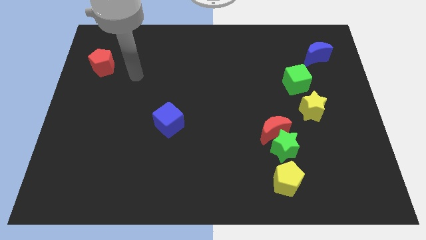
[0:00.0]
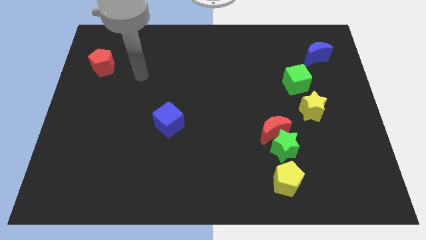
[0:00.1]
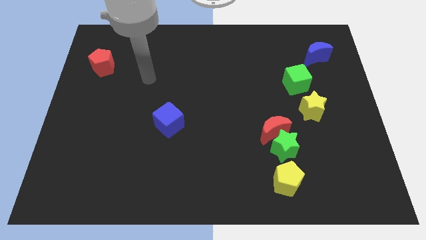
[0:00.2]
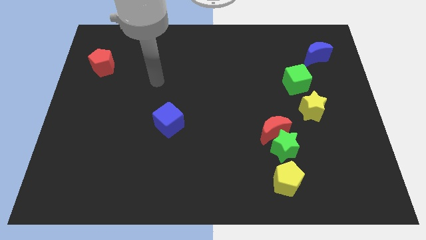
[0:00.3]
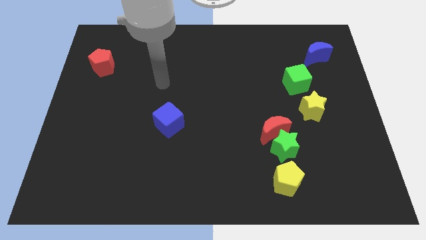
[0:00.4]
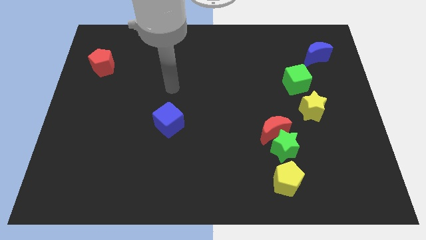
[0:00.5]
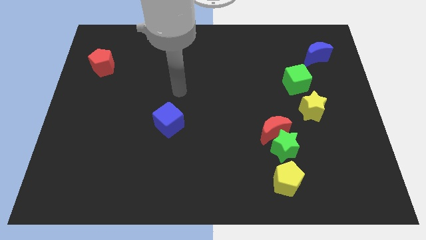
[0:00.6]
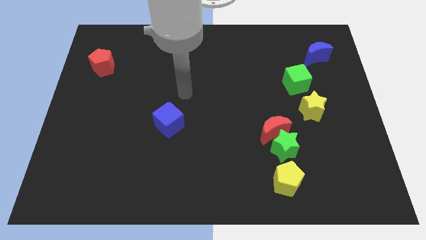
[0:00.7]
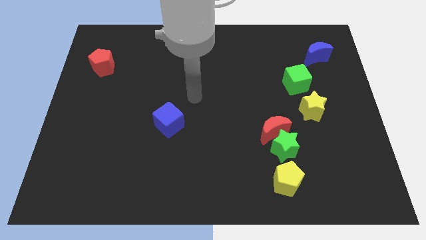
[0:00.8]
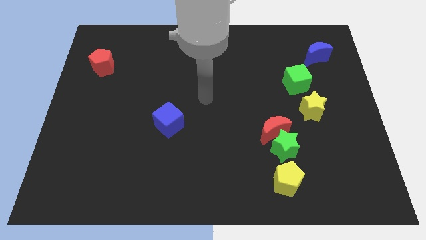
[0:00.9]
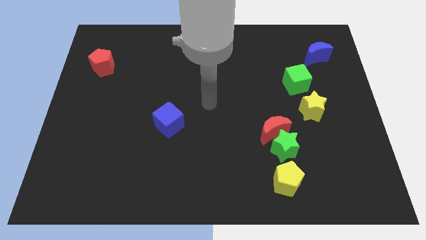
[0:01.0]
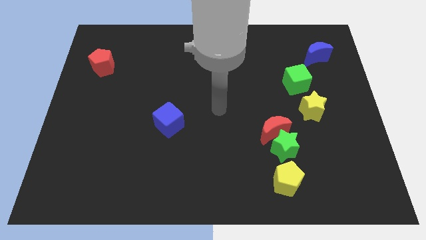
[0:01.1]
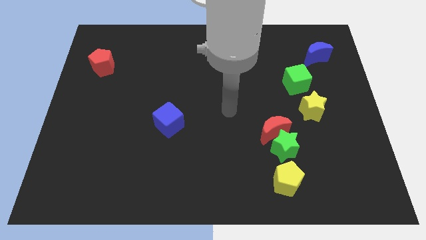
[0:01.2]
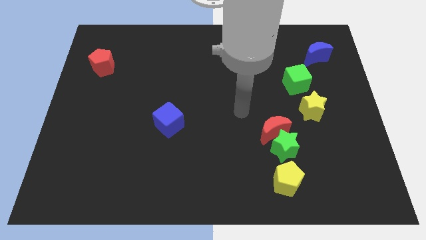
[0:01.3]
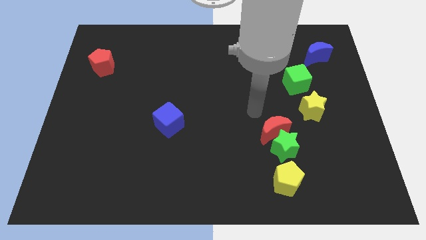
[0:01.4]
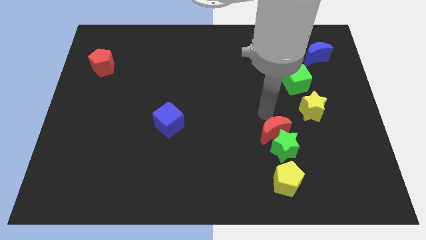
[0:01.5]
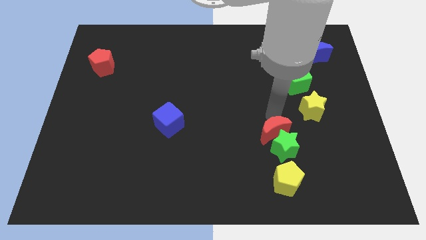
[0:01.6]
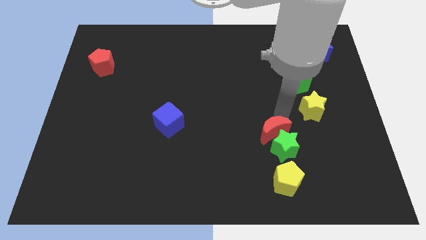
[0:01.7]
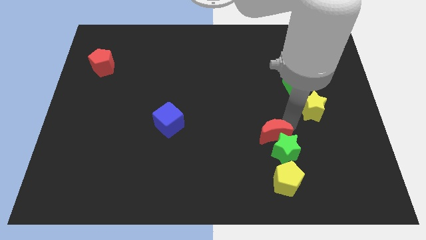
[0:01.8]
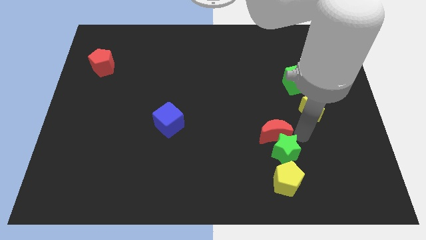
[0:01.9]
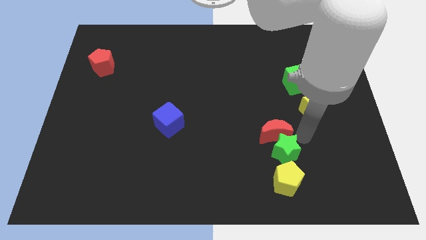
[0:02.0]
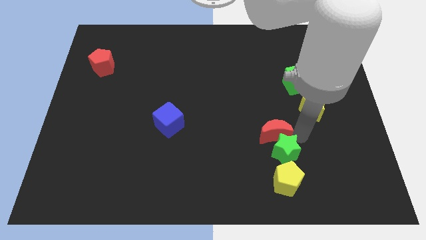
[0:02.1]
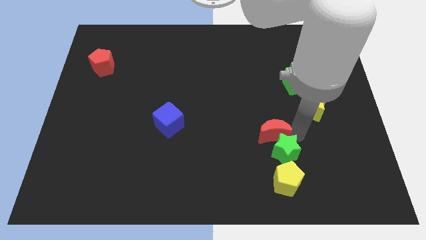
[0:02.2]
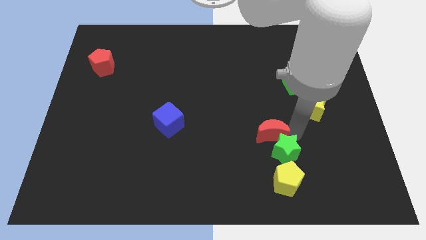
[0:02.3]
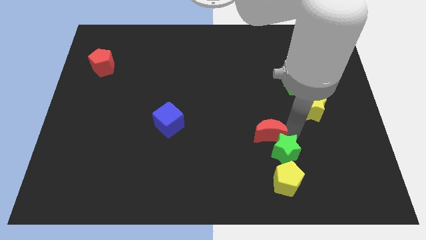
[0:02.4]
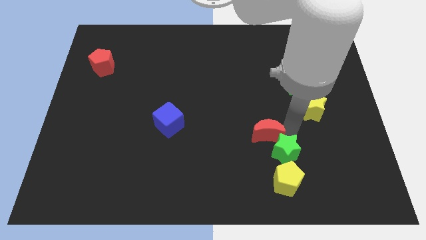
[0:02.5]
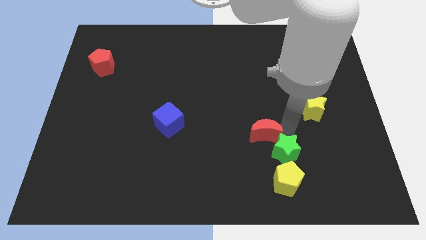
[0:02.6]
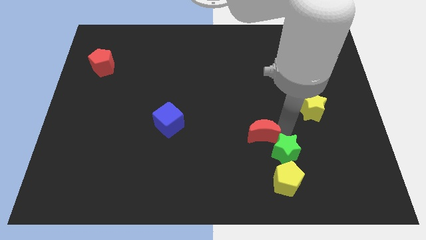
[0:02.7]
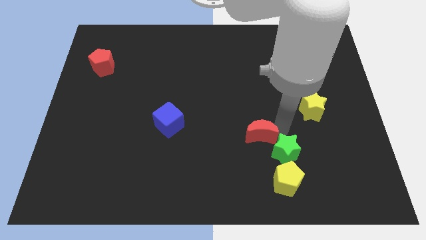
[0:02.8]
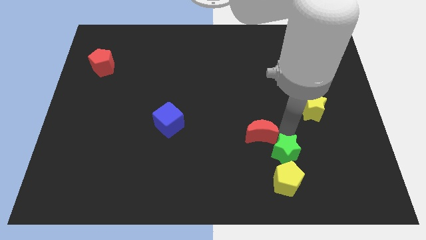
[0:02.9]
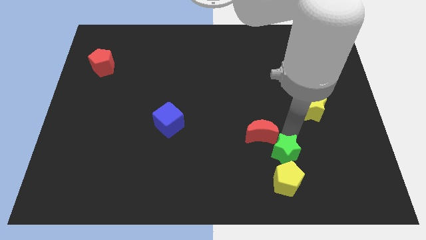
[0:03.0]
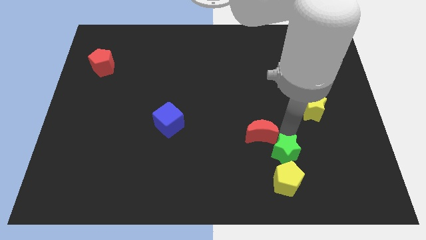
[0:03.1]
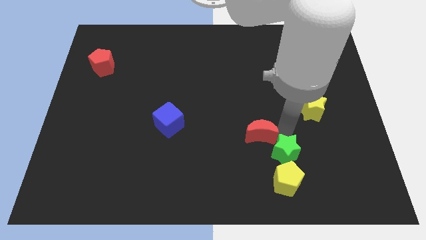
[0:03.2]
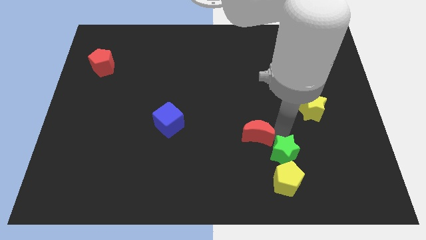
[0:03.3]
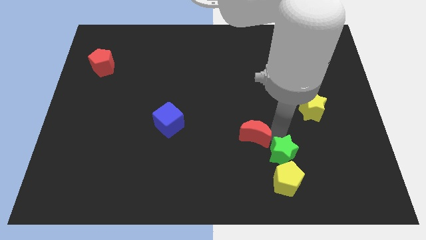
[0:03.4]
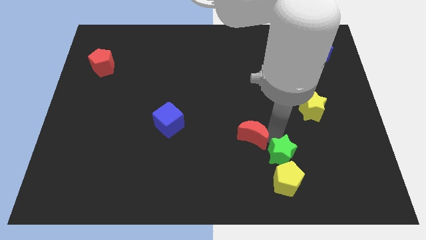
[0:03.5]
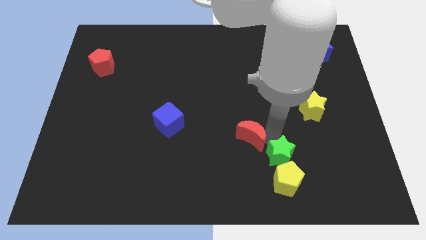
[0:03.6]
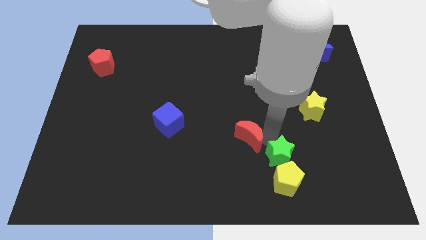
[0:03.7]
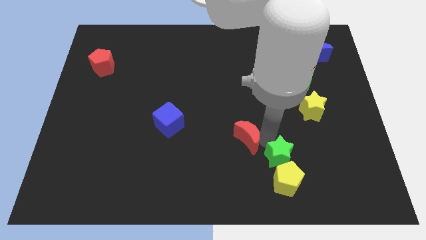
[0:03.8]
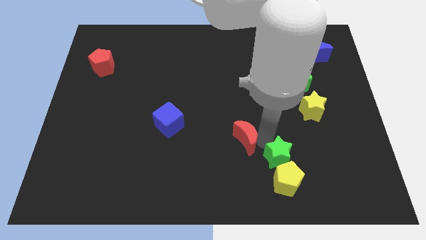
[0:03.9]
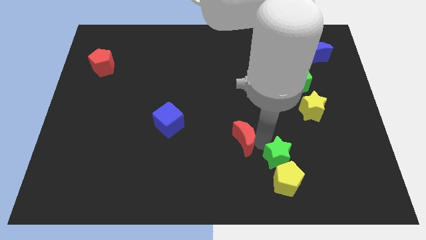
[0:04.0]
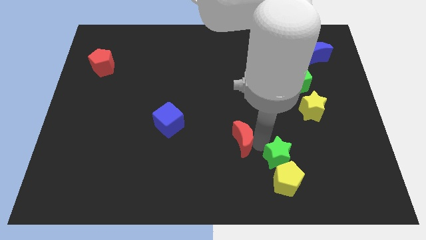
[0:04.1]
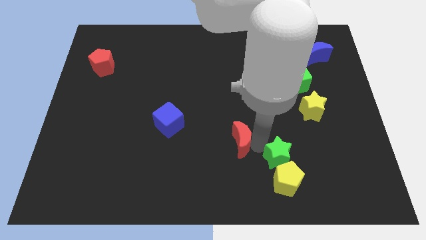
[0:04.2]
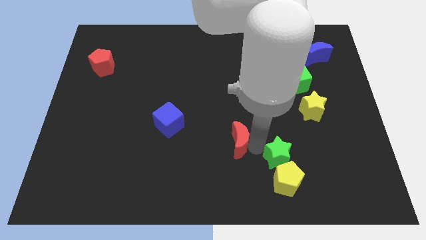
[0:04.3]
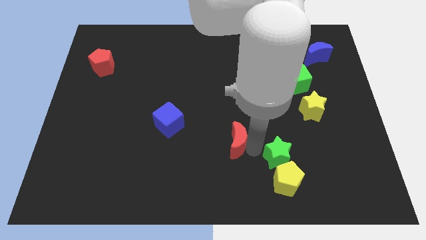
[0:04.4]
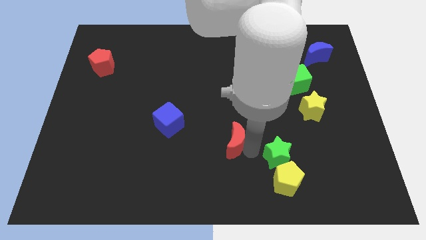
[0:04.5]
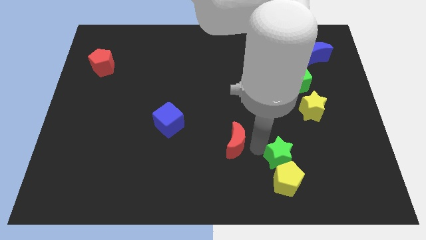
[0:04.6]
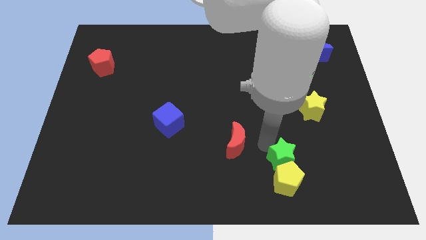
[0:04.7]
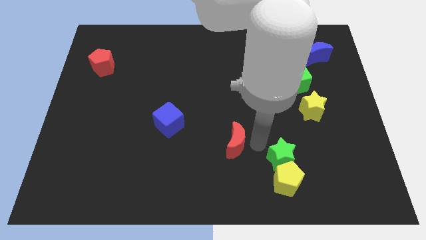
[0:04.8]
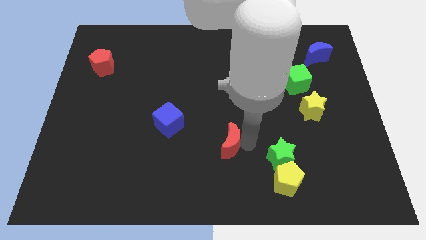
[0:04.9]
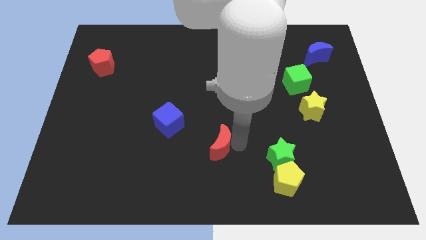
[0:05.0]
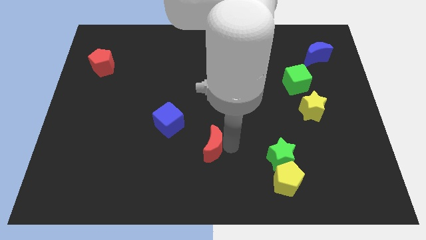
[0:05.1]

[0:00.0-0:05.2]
move the red moon diagonally down and to the right of the blue cube
